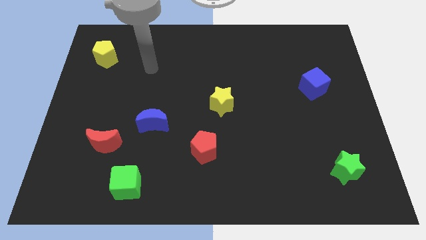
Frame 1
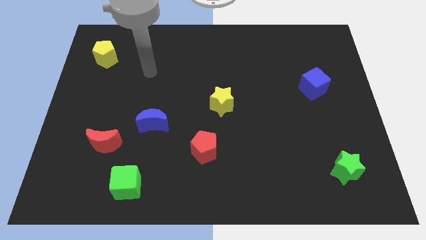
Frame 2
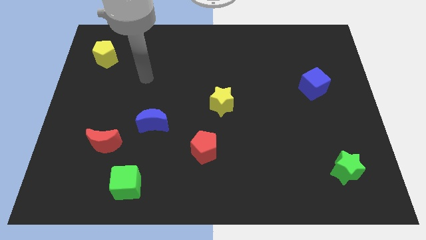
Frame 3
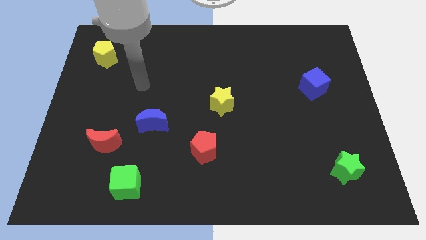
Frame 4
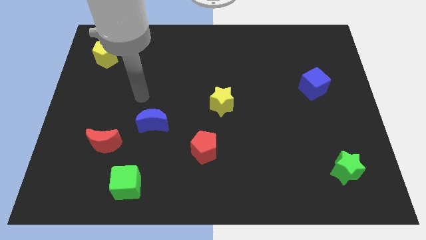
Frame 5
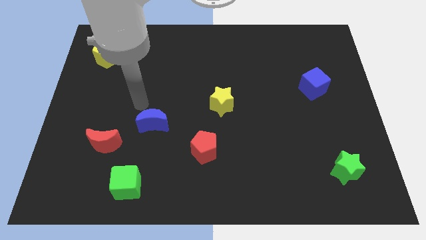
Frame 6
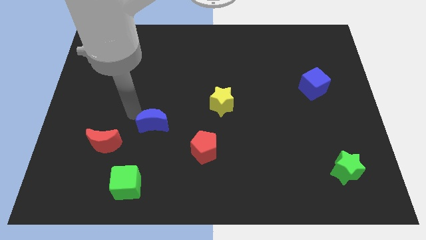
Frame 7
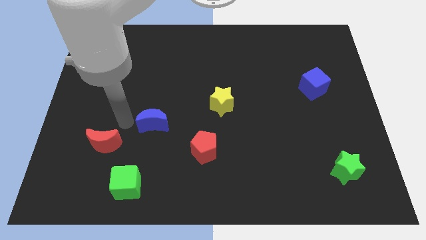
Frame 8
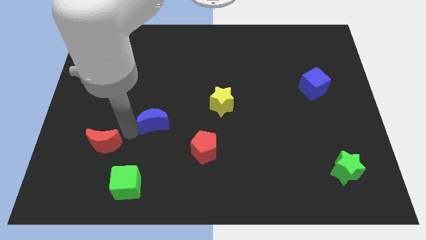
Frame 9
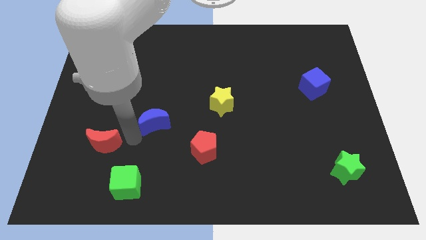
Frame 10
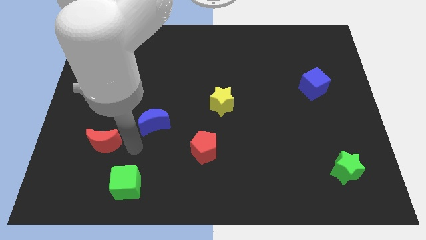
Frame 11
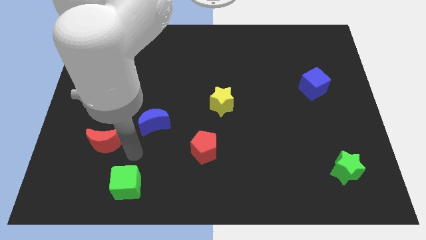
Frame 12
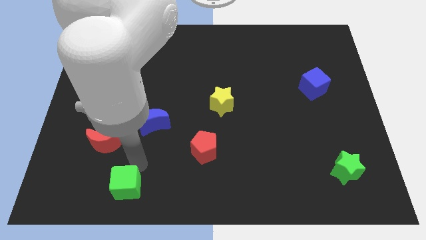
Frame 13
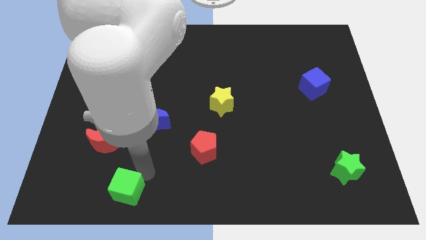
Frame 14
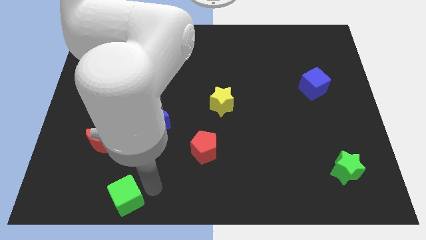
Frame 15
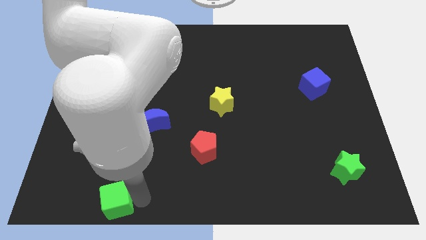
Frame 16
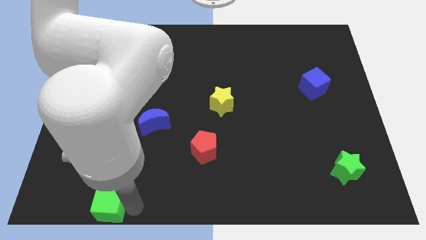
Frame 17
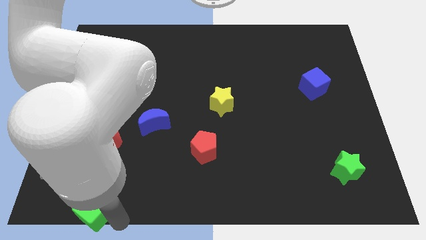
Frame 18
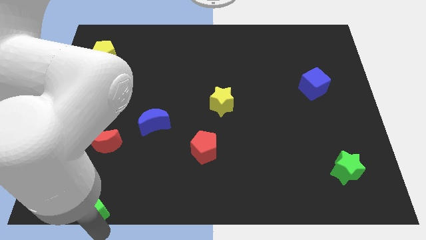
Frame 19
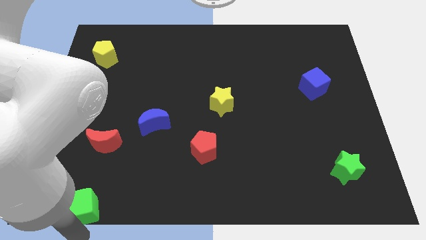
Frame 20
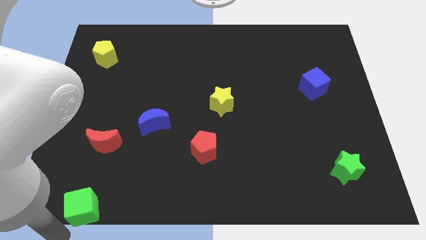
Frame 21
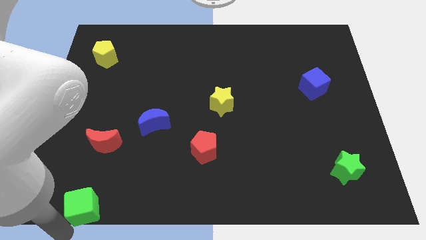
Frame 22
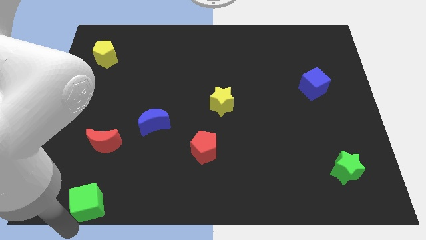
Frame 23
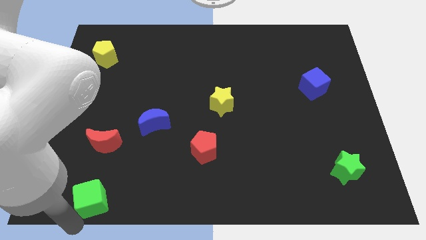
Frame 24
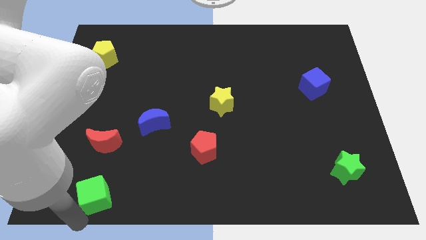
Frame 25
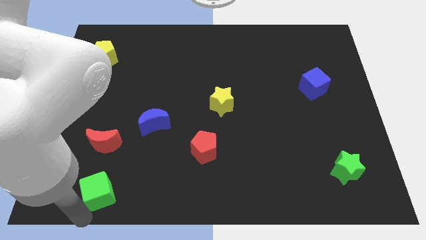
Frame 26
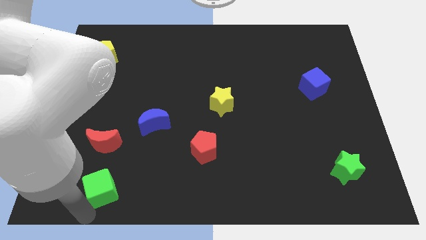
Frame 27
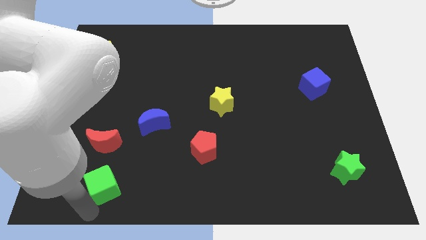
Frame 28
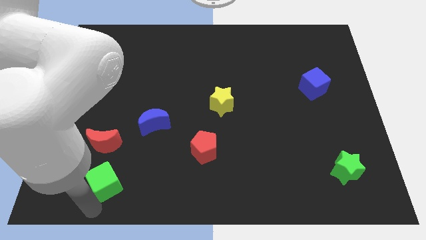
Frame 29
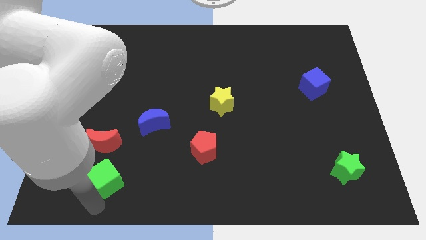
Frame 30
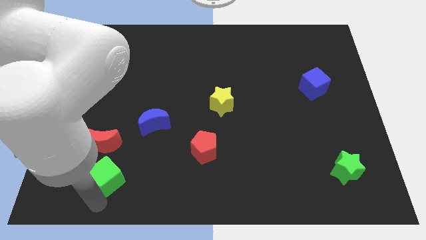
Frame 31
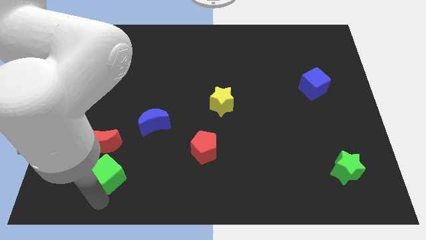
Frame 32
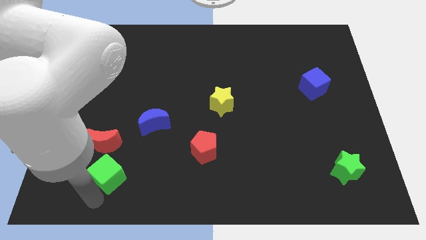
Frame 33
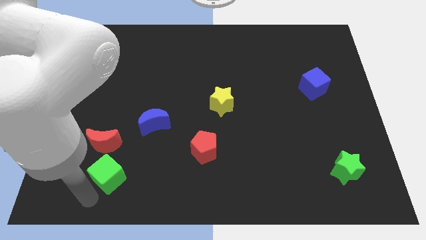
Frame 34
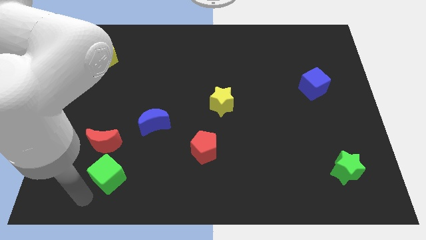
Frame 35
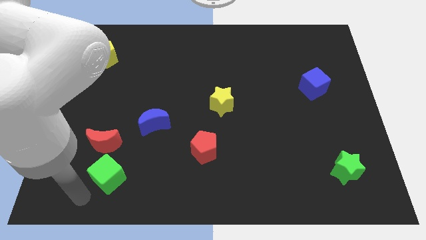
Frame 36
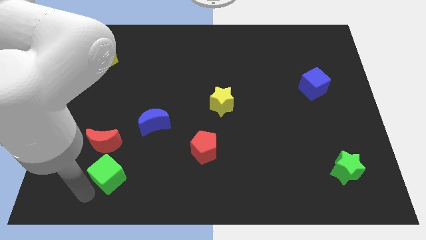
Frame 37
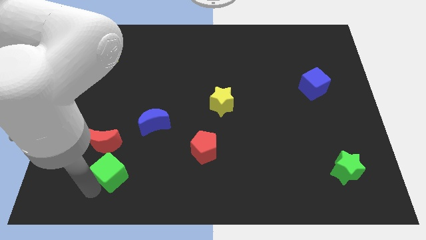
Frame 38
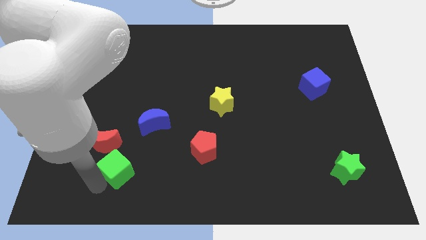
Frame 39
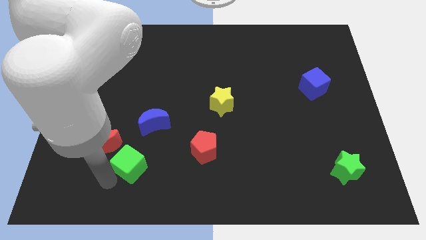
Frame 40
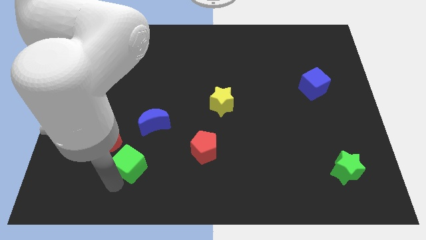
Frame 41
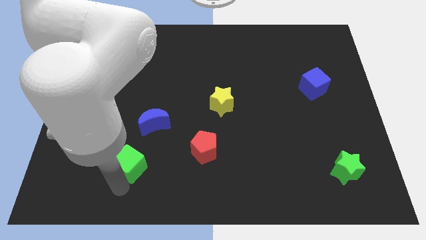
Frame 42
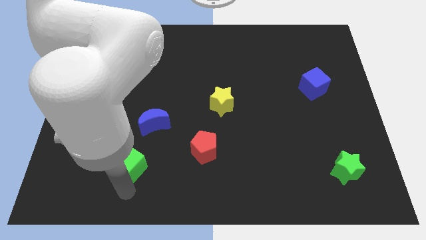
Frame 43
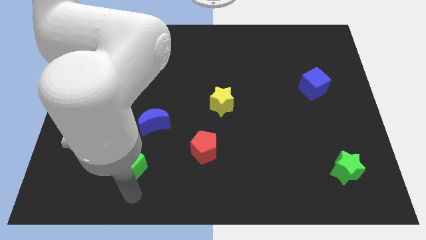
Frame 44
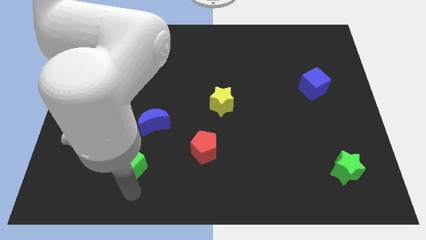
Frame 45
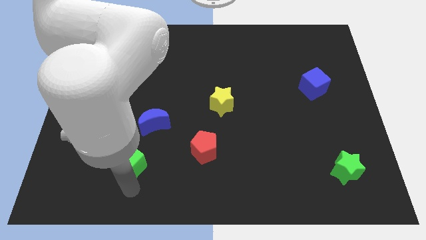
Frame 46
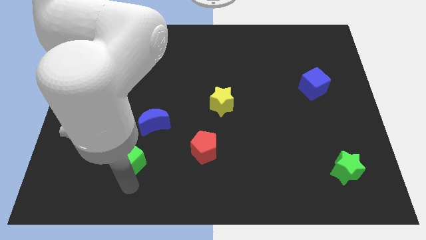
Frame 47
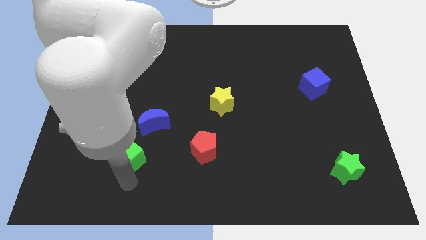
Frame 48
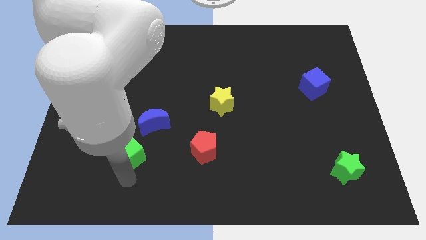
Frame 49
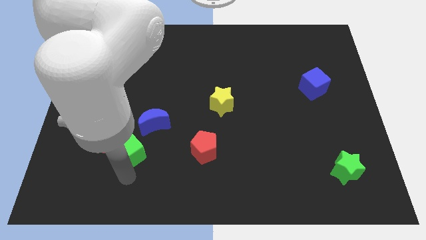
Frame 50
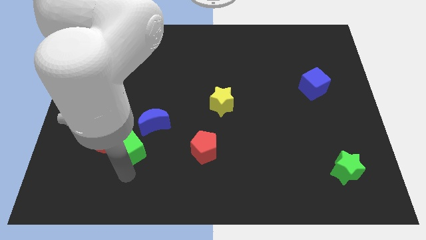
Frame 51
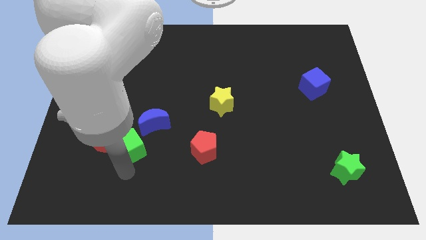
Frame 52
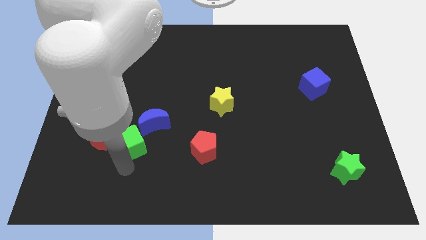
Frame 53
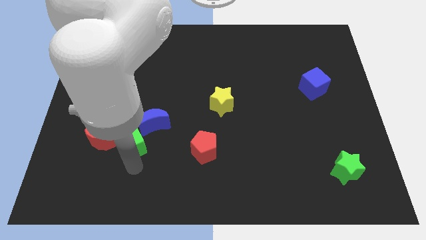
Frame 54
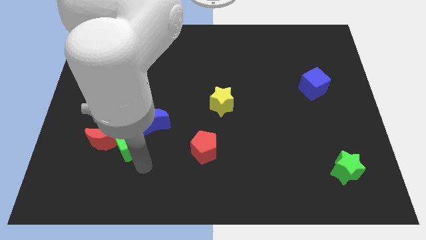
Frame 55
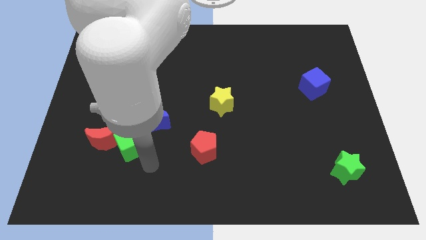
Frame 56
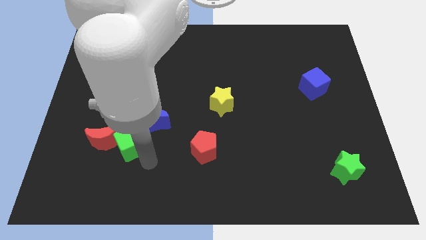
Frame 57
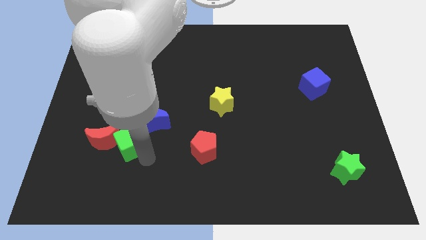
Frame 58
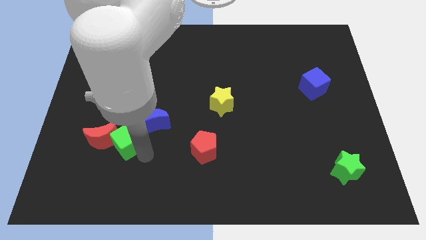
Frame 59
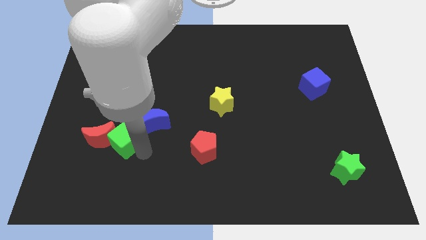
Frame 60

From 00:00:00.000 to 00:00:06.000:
push the green cube just left of the blue moon

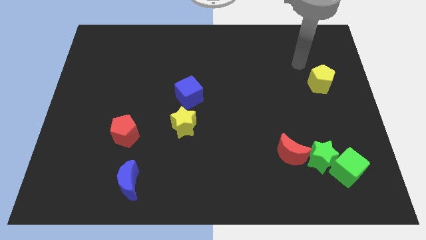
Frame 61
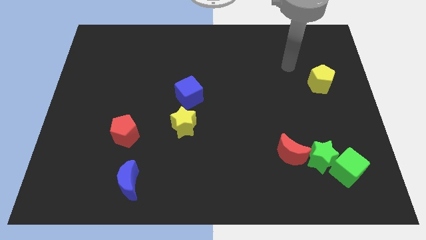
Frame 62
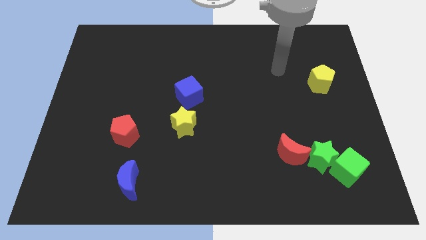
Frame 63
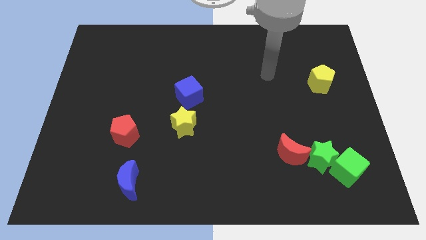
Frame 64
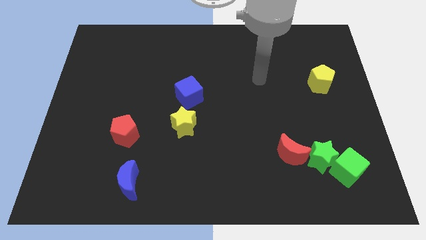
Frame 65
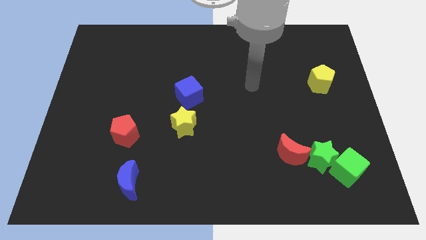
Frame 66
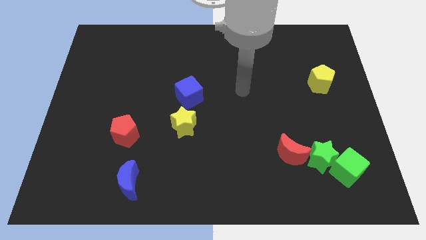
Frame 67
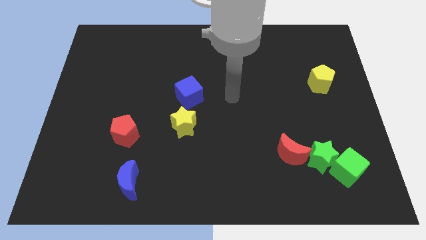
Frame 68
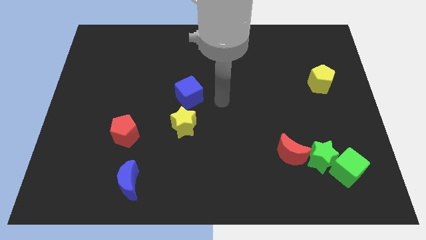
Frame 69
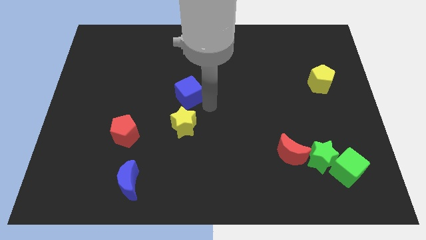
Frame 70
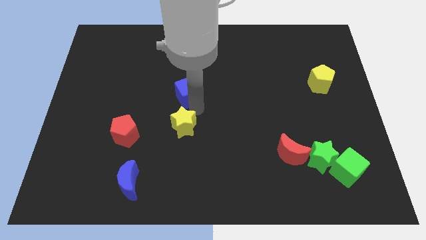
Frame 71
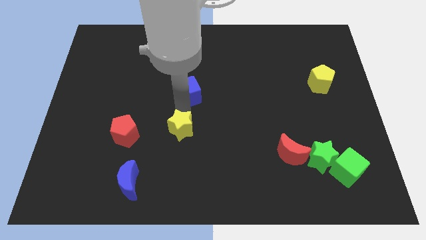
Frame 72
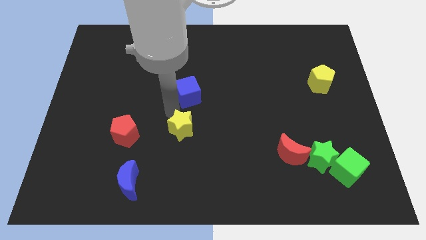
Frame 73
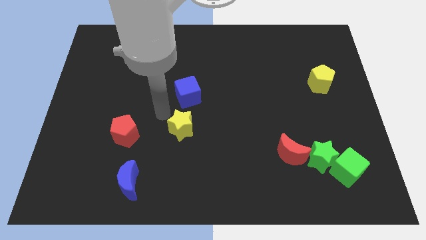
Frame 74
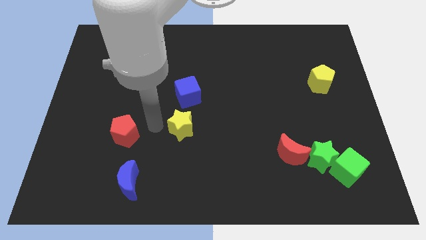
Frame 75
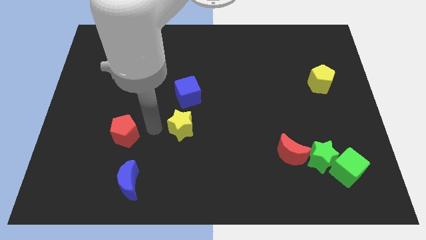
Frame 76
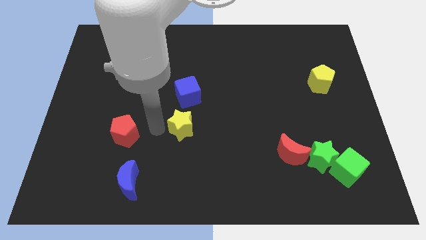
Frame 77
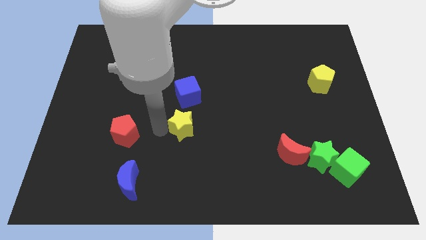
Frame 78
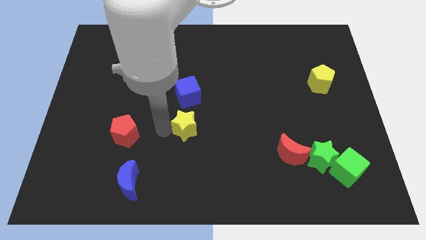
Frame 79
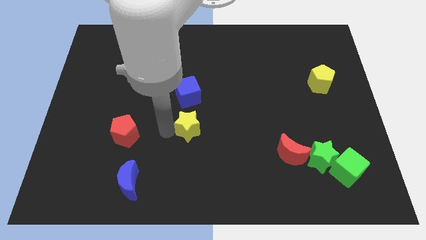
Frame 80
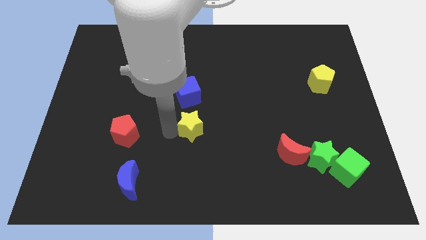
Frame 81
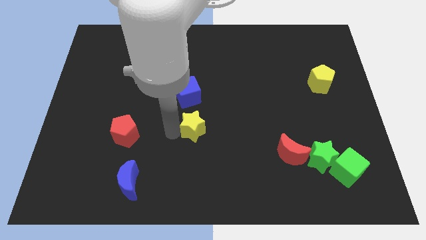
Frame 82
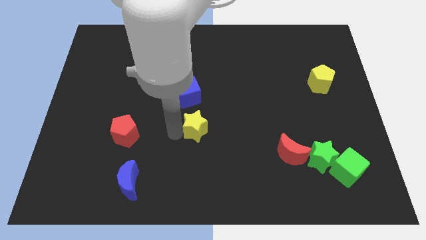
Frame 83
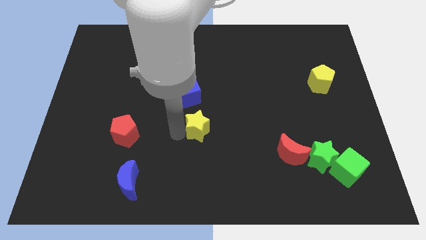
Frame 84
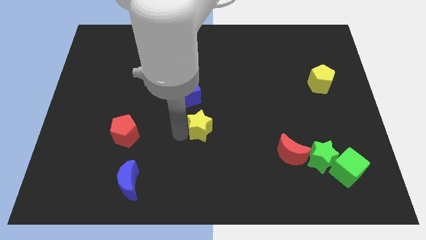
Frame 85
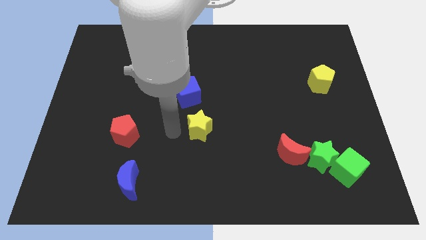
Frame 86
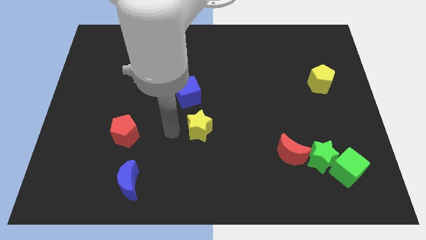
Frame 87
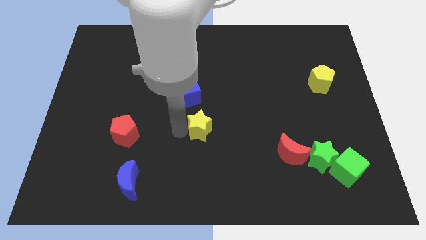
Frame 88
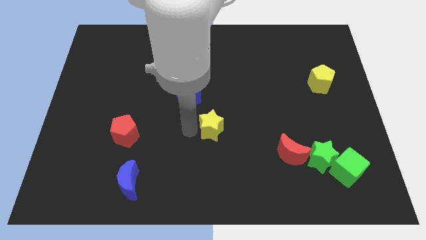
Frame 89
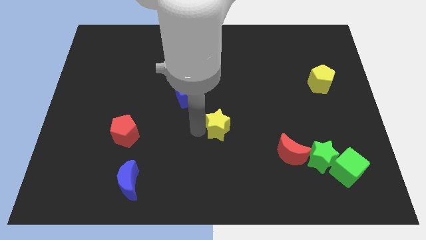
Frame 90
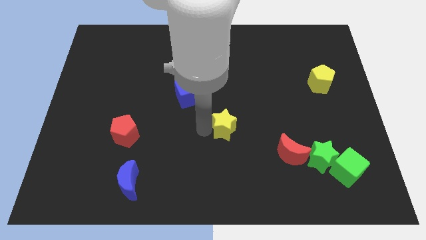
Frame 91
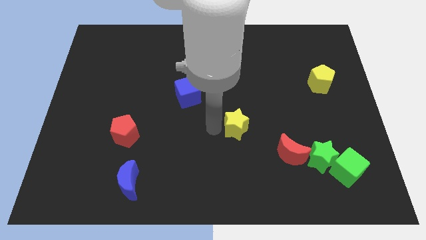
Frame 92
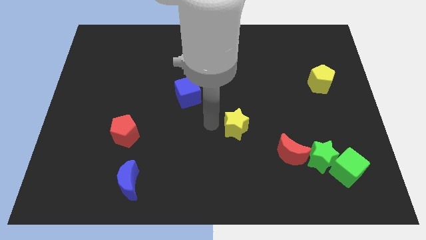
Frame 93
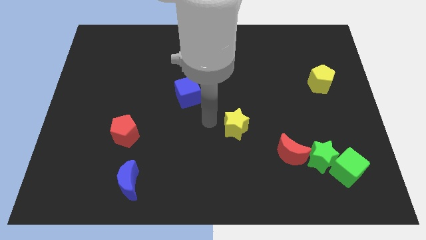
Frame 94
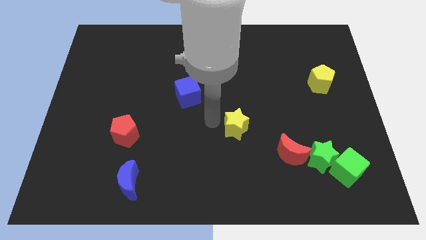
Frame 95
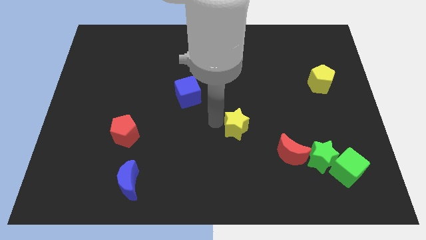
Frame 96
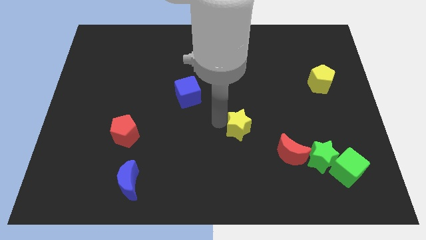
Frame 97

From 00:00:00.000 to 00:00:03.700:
slide the yellow star diagonally up and to the left of the red moon
